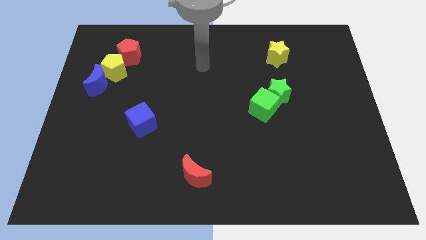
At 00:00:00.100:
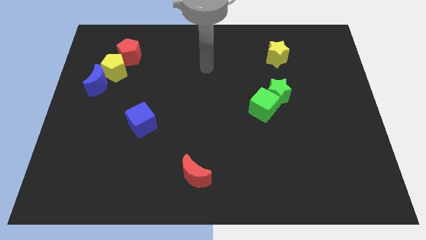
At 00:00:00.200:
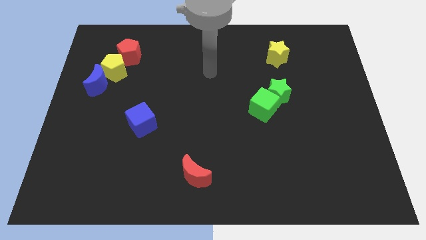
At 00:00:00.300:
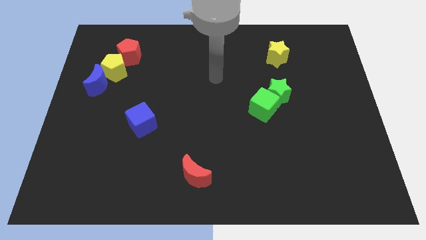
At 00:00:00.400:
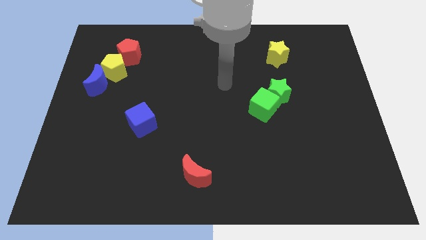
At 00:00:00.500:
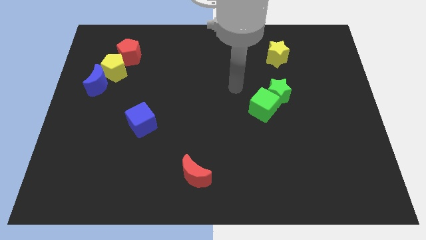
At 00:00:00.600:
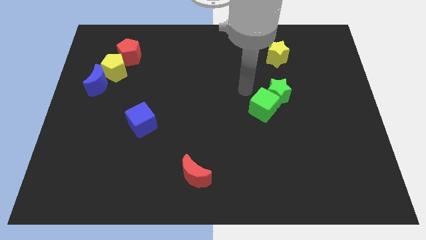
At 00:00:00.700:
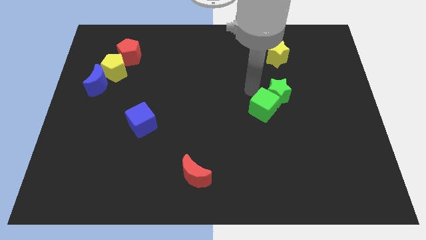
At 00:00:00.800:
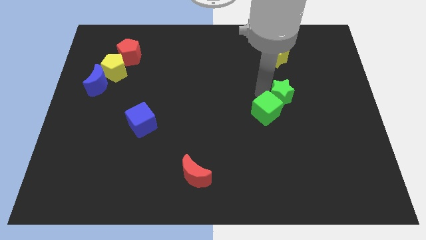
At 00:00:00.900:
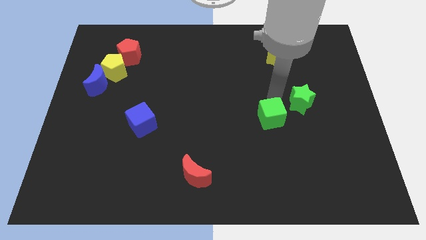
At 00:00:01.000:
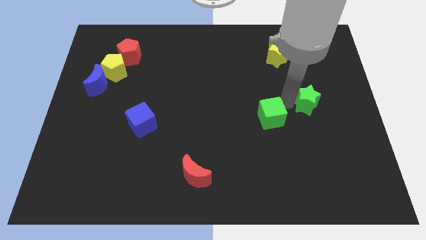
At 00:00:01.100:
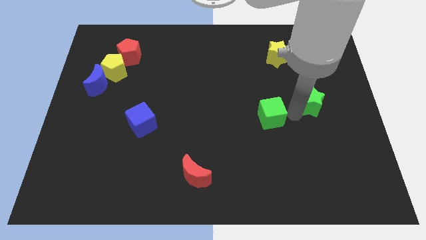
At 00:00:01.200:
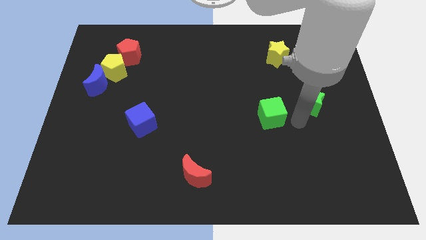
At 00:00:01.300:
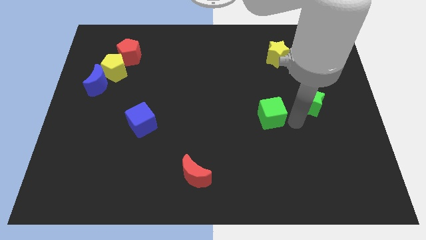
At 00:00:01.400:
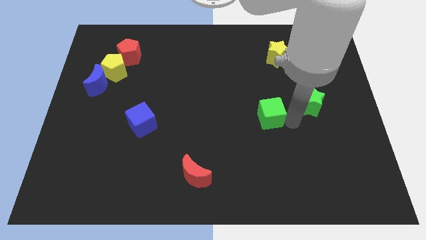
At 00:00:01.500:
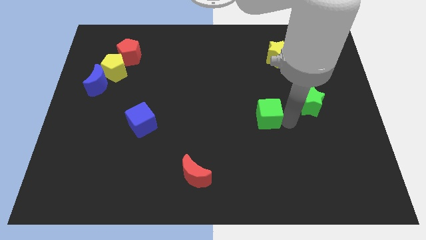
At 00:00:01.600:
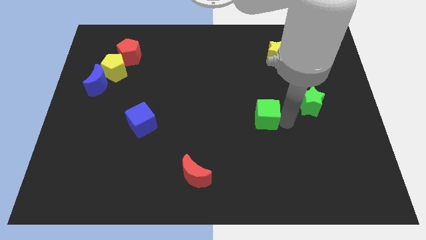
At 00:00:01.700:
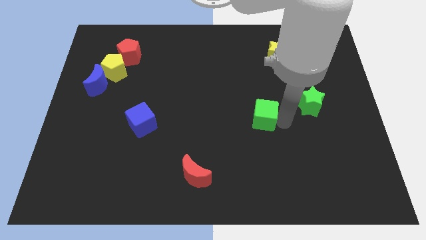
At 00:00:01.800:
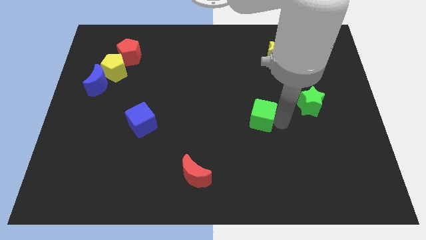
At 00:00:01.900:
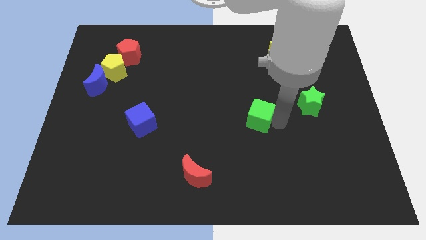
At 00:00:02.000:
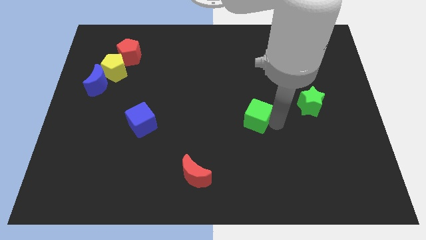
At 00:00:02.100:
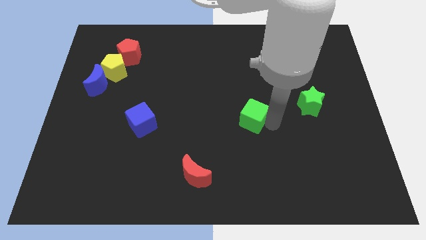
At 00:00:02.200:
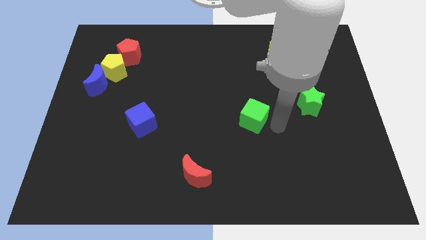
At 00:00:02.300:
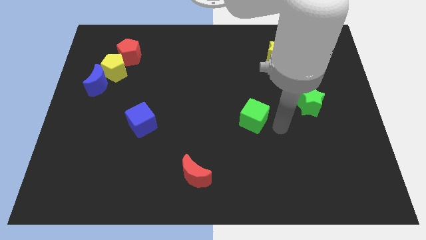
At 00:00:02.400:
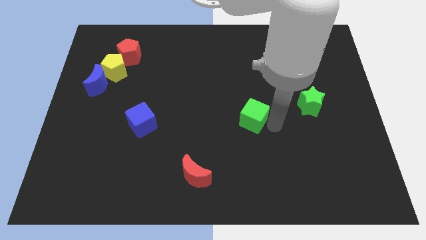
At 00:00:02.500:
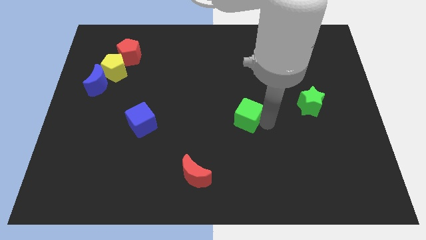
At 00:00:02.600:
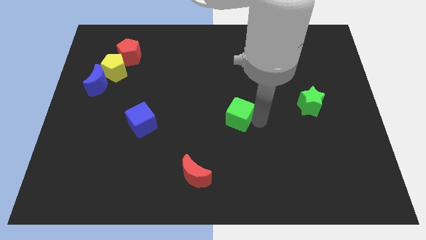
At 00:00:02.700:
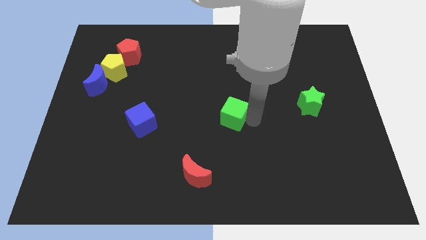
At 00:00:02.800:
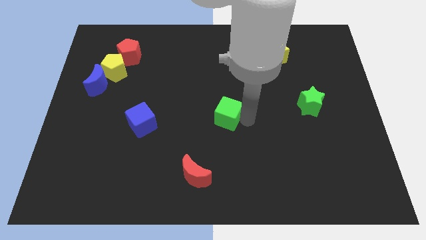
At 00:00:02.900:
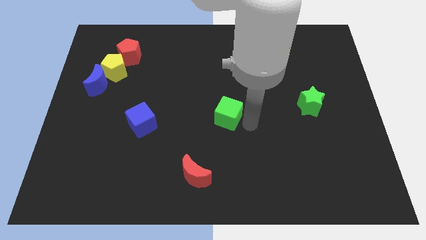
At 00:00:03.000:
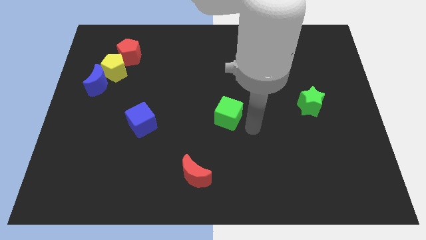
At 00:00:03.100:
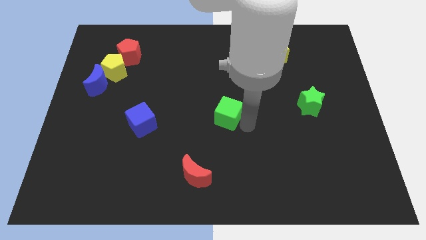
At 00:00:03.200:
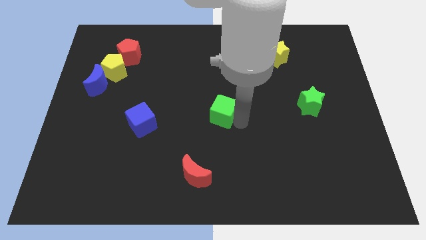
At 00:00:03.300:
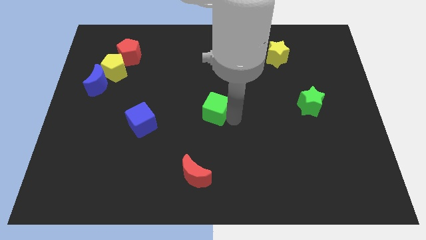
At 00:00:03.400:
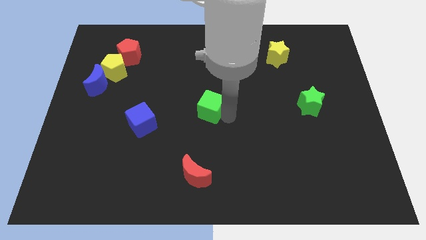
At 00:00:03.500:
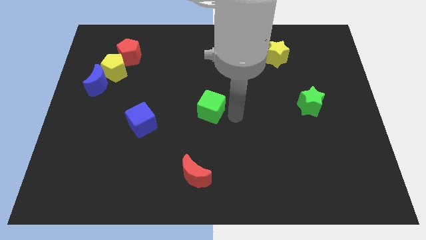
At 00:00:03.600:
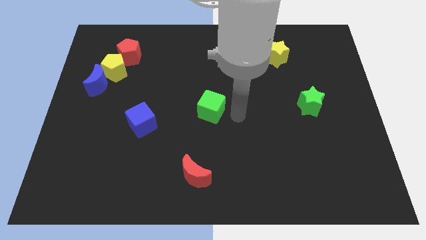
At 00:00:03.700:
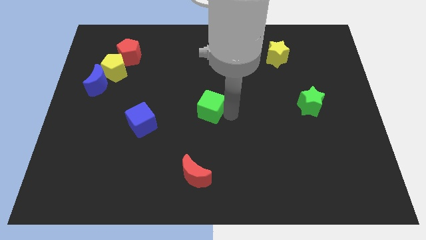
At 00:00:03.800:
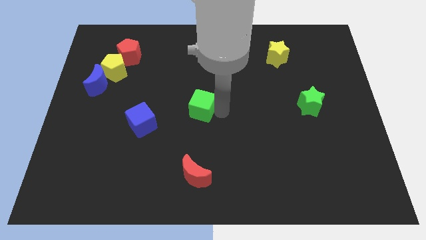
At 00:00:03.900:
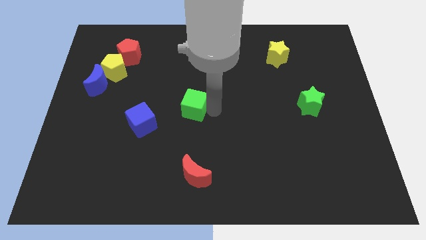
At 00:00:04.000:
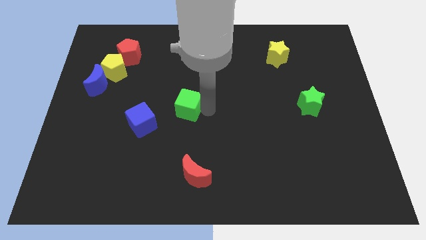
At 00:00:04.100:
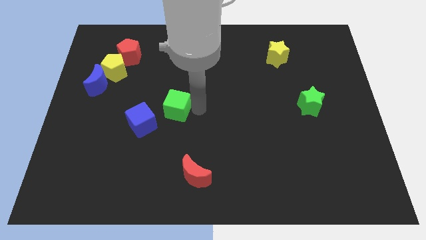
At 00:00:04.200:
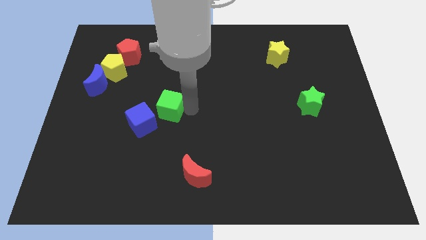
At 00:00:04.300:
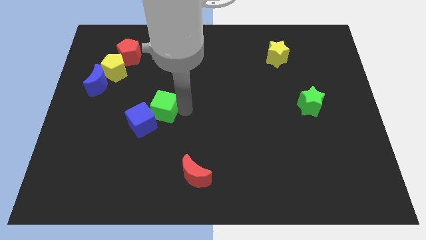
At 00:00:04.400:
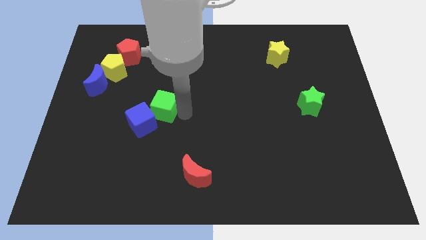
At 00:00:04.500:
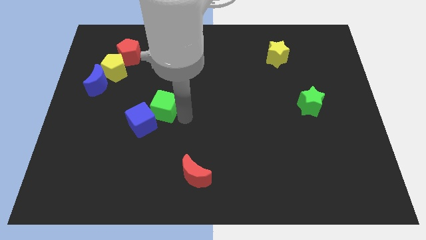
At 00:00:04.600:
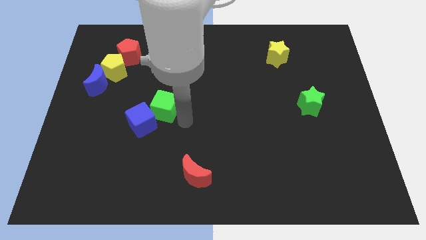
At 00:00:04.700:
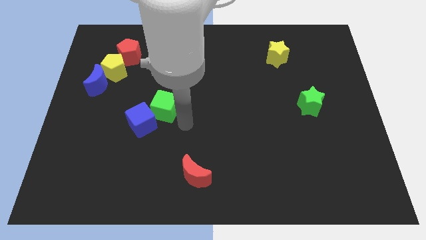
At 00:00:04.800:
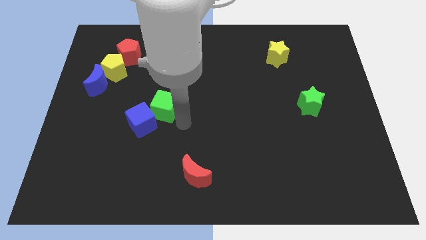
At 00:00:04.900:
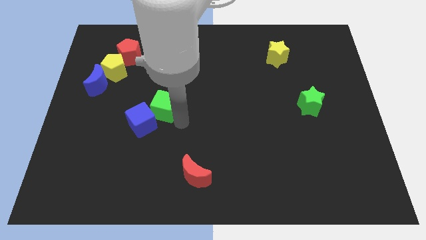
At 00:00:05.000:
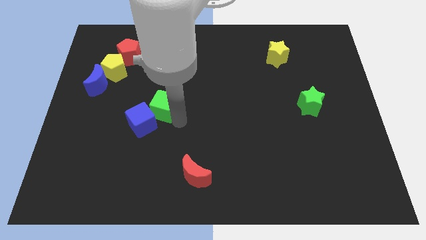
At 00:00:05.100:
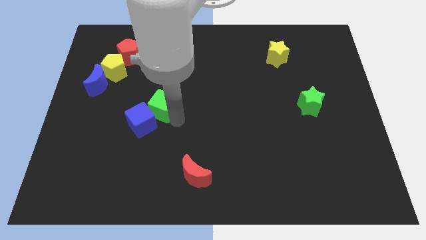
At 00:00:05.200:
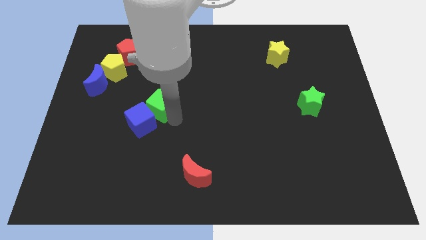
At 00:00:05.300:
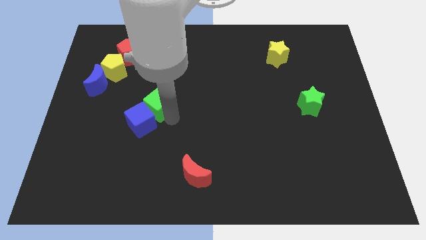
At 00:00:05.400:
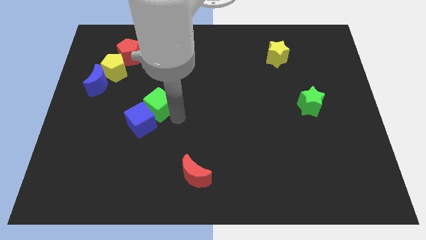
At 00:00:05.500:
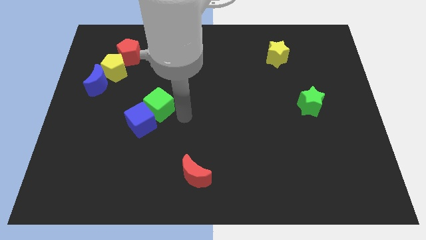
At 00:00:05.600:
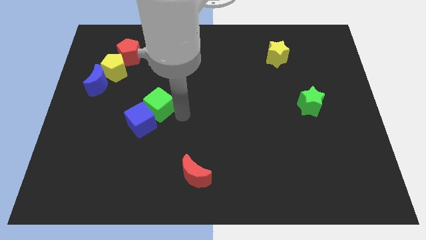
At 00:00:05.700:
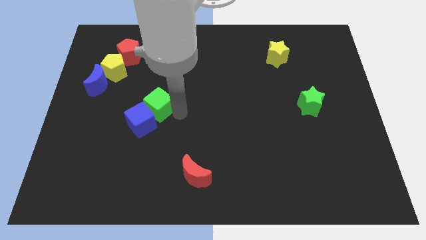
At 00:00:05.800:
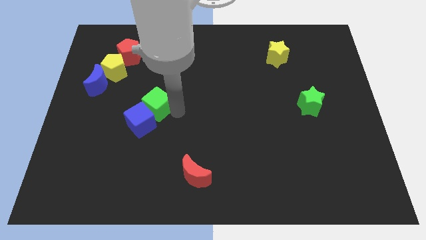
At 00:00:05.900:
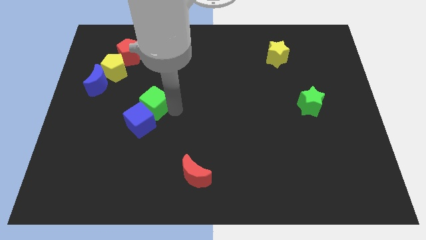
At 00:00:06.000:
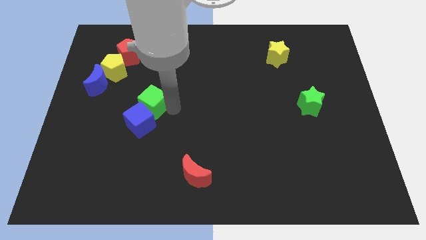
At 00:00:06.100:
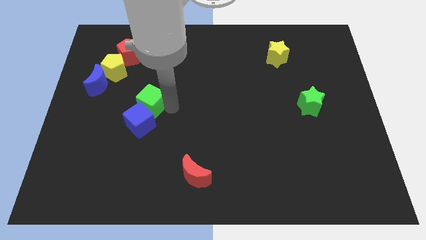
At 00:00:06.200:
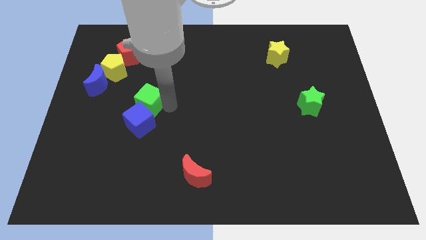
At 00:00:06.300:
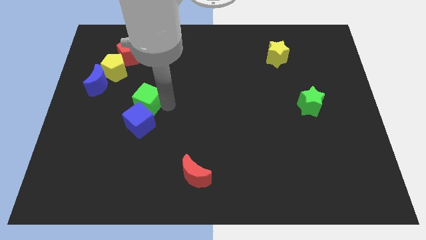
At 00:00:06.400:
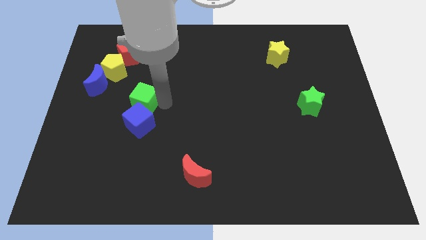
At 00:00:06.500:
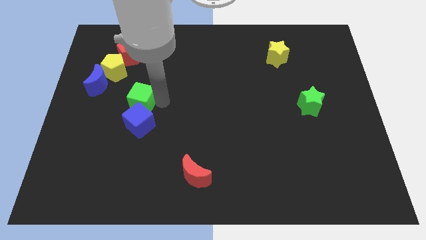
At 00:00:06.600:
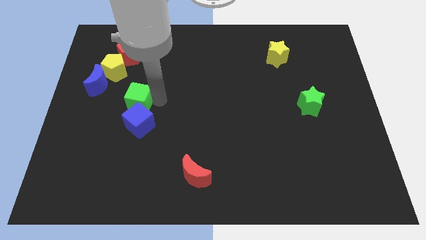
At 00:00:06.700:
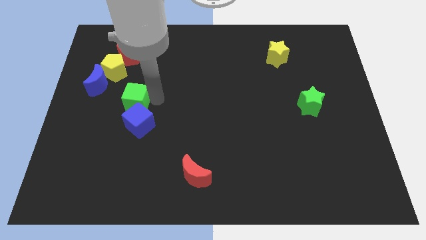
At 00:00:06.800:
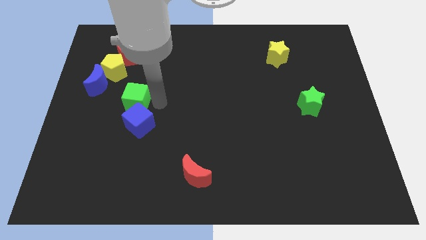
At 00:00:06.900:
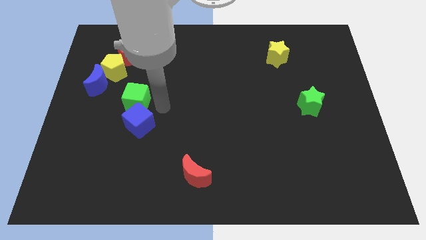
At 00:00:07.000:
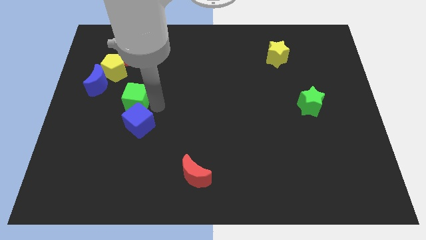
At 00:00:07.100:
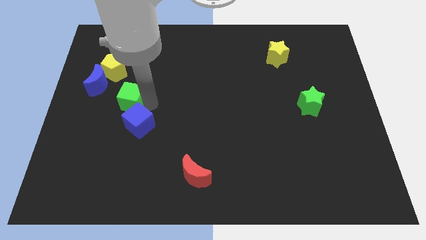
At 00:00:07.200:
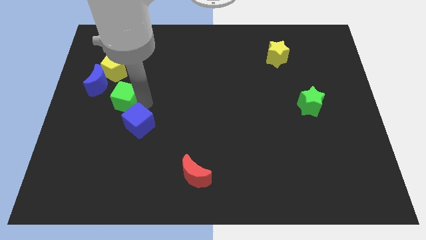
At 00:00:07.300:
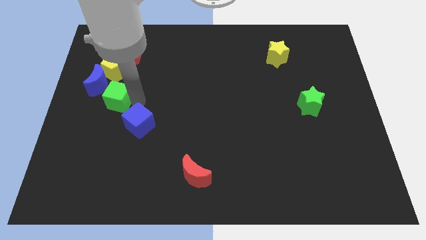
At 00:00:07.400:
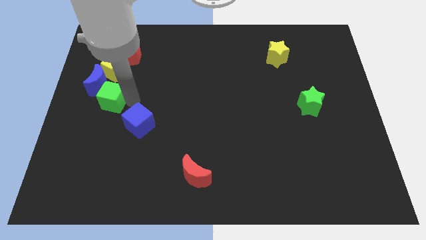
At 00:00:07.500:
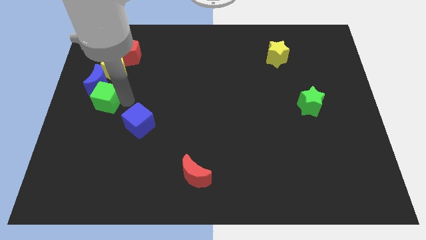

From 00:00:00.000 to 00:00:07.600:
push the green cube to the center left
